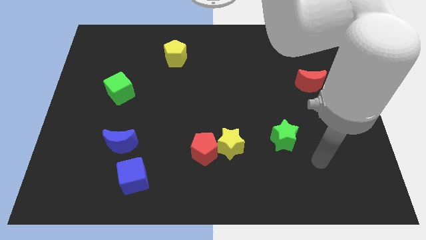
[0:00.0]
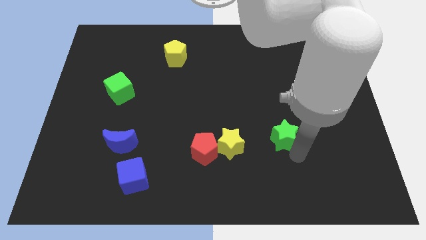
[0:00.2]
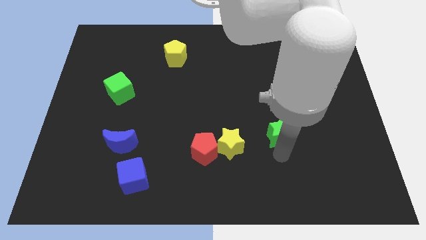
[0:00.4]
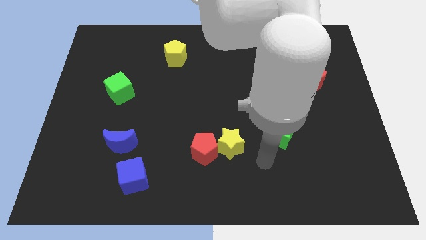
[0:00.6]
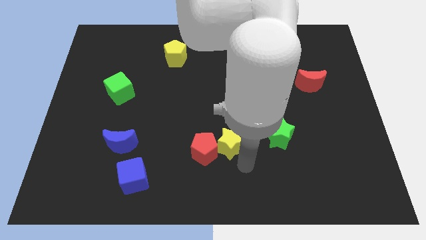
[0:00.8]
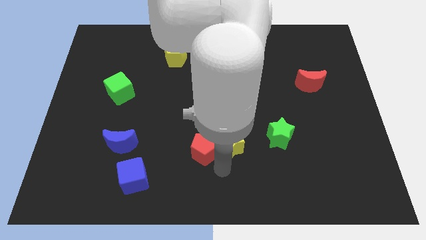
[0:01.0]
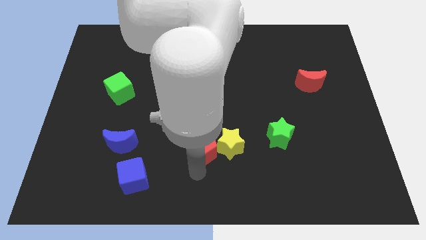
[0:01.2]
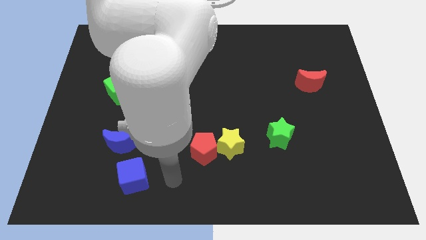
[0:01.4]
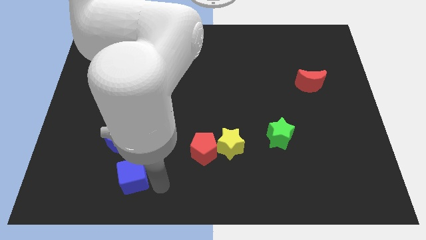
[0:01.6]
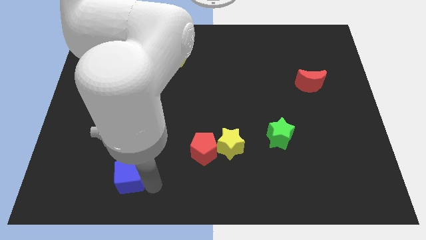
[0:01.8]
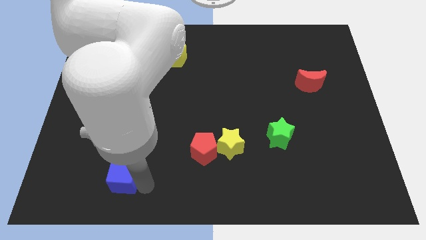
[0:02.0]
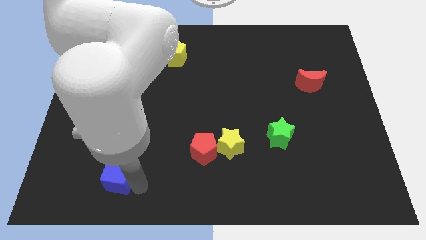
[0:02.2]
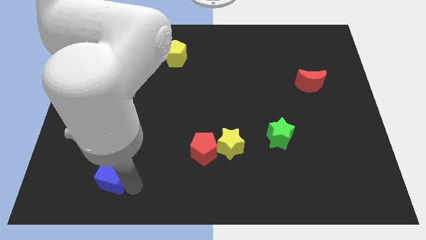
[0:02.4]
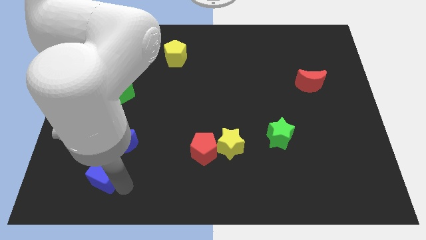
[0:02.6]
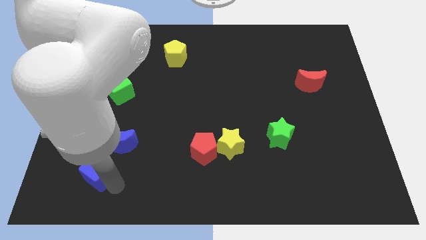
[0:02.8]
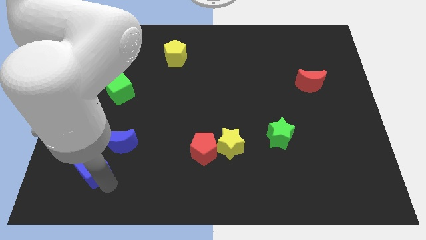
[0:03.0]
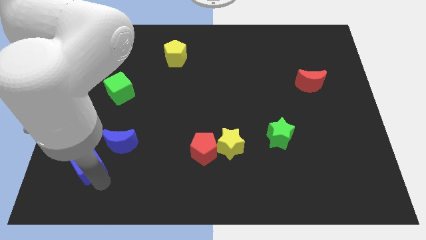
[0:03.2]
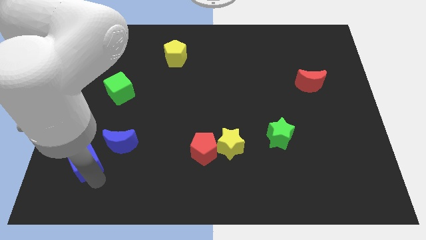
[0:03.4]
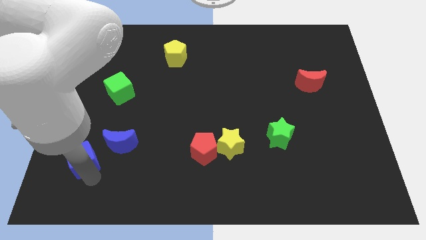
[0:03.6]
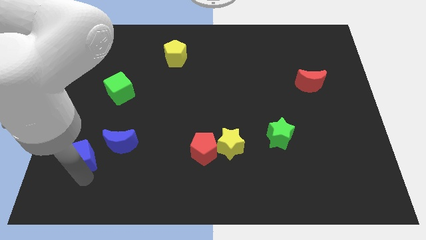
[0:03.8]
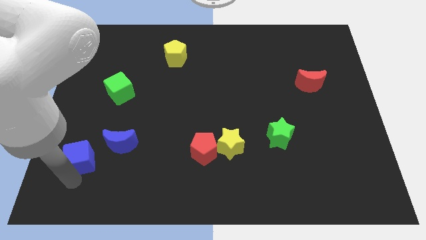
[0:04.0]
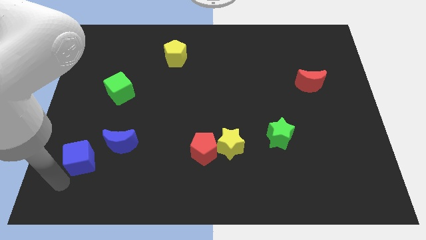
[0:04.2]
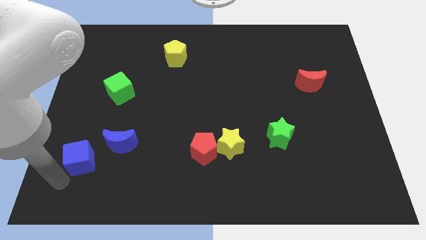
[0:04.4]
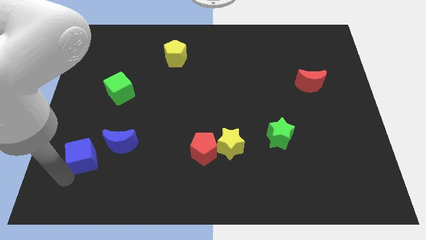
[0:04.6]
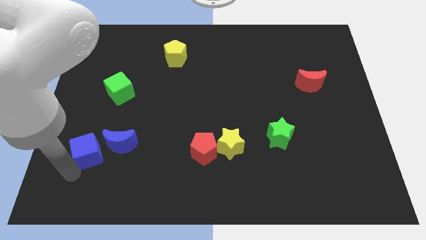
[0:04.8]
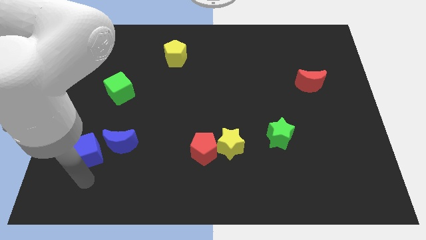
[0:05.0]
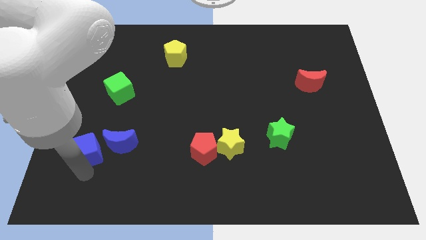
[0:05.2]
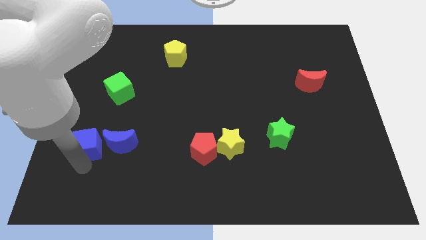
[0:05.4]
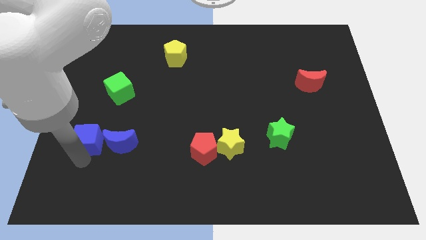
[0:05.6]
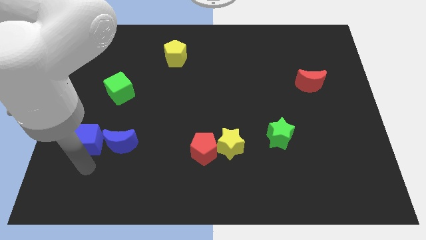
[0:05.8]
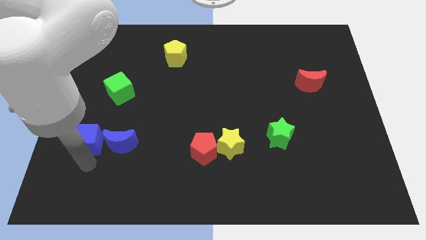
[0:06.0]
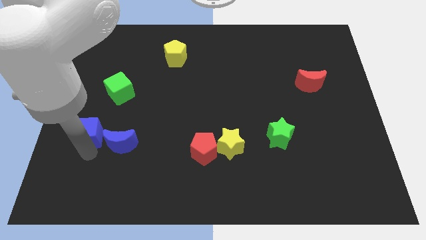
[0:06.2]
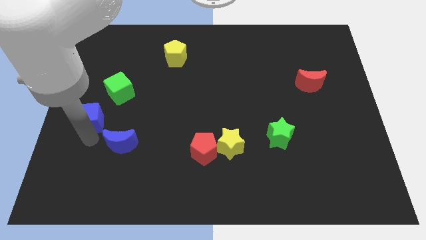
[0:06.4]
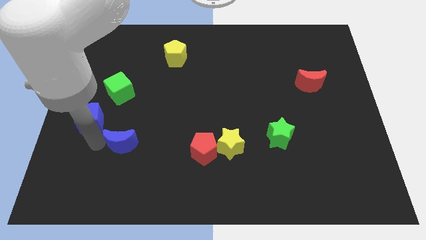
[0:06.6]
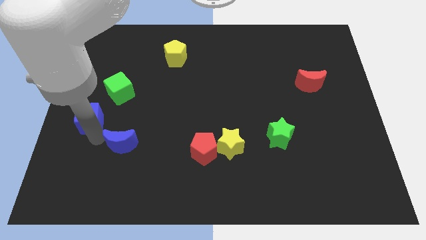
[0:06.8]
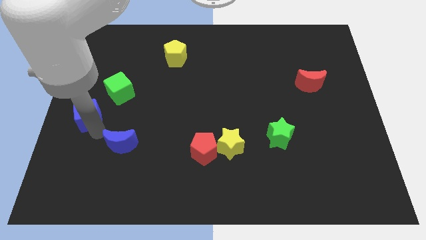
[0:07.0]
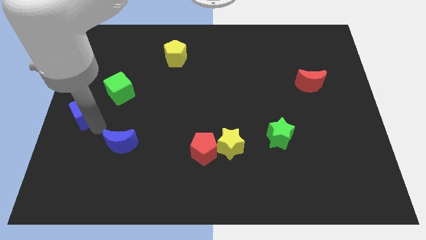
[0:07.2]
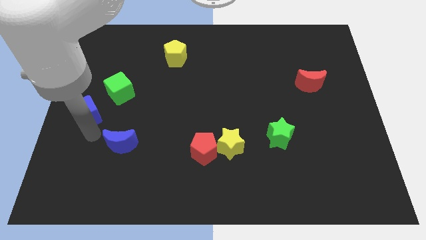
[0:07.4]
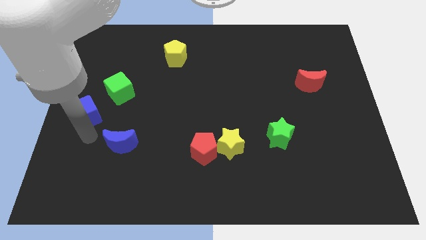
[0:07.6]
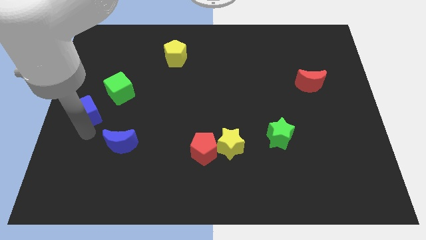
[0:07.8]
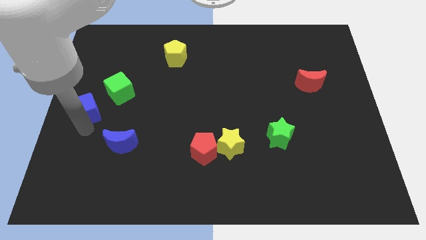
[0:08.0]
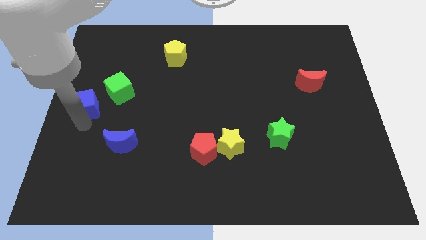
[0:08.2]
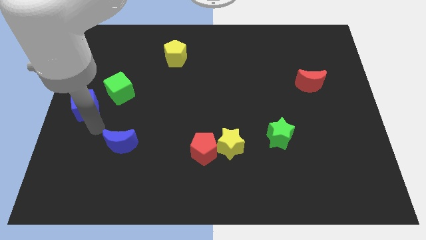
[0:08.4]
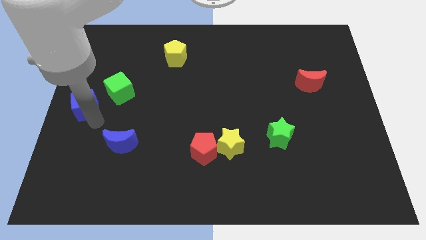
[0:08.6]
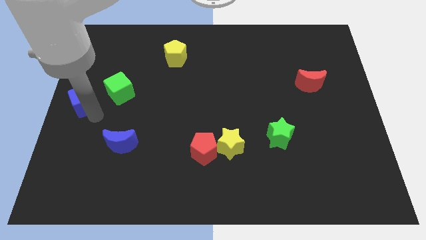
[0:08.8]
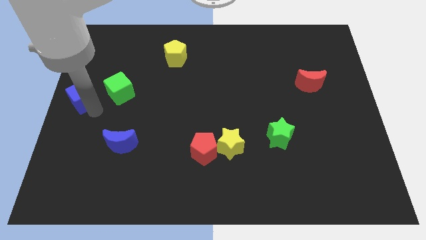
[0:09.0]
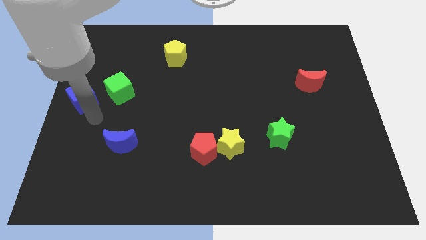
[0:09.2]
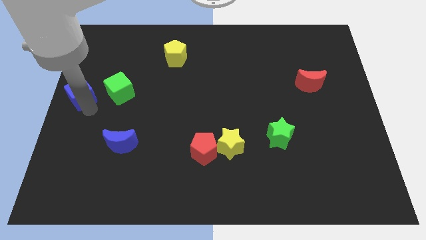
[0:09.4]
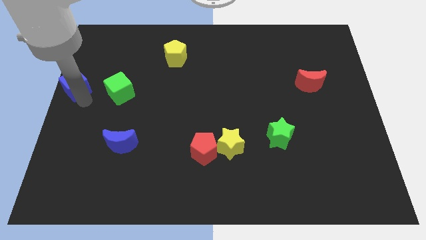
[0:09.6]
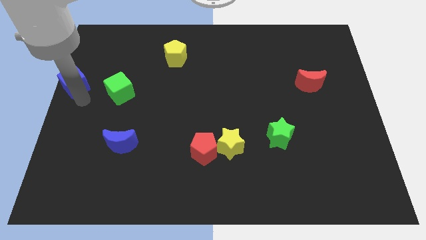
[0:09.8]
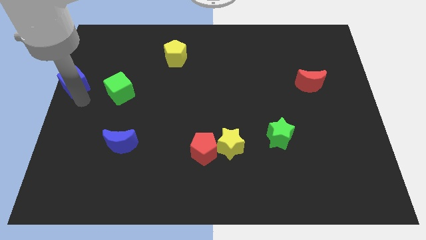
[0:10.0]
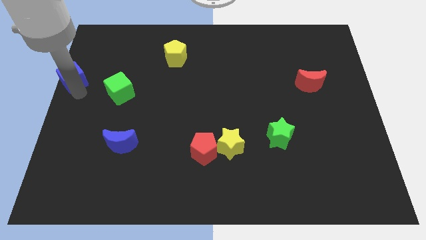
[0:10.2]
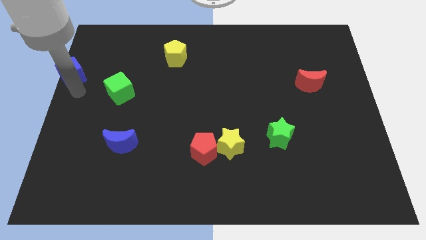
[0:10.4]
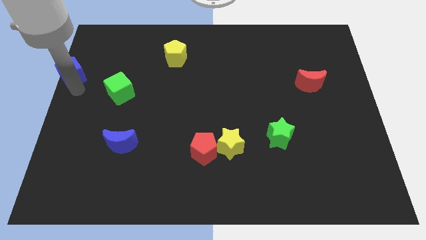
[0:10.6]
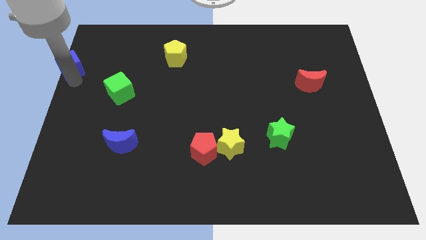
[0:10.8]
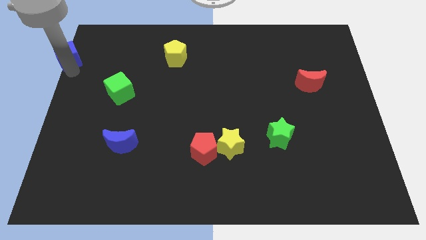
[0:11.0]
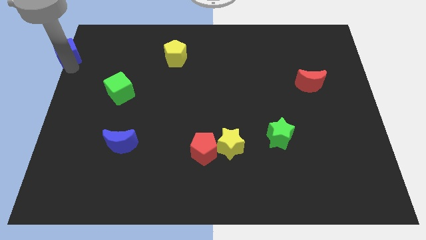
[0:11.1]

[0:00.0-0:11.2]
slide the blue cube to the upper left corner
